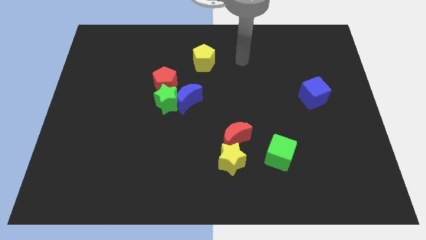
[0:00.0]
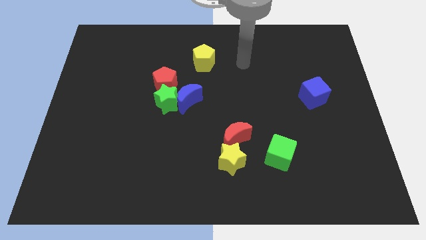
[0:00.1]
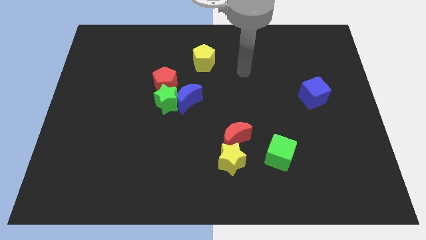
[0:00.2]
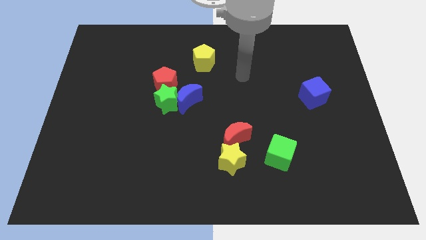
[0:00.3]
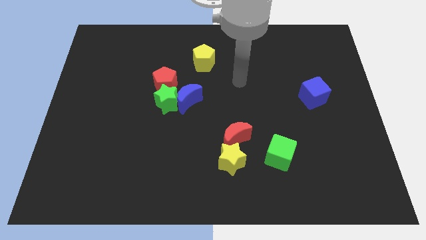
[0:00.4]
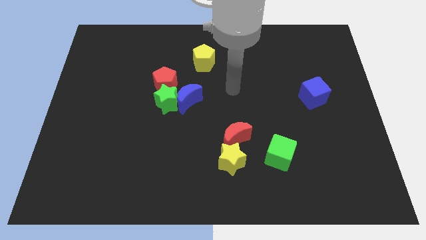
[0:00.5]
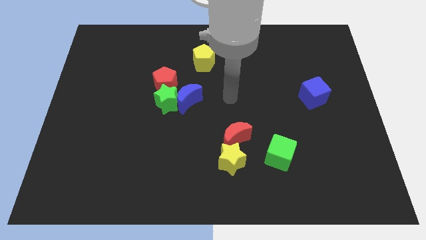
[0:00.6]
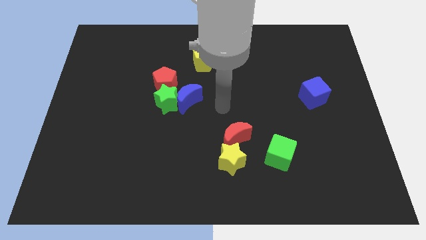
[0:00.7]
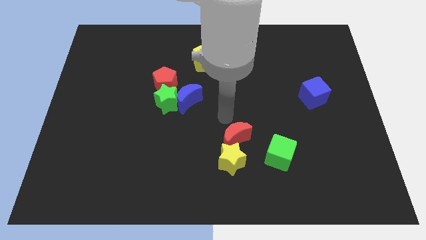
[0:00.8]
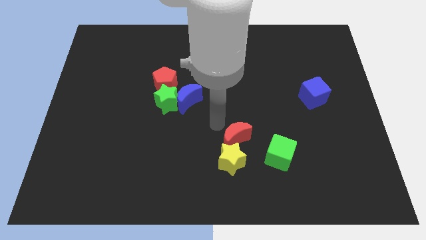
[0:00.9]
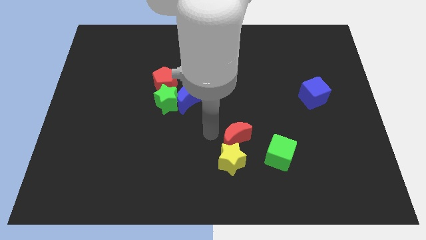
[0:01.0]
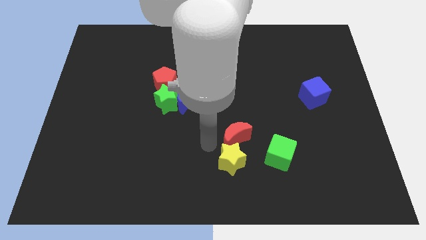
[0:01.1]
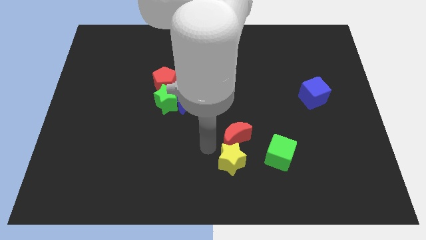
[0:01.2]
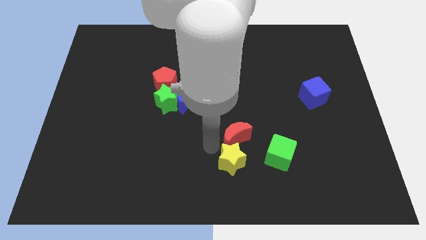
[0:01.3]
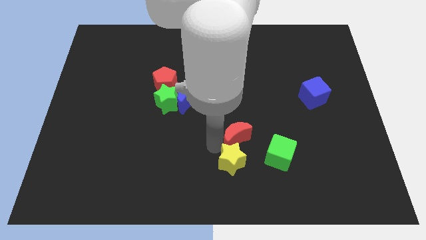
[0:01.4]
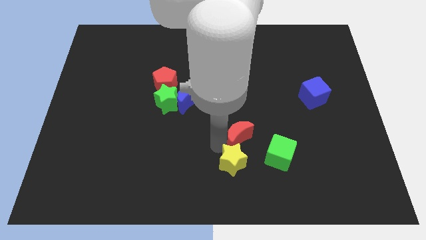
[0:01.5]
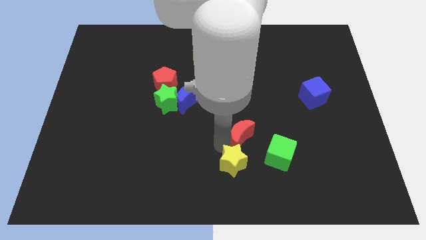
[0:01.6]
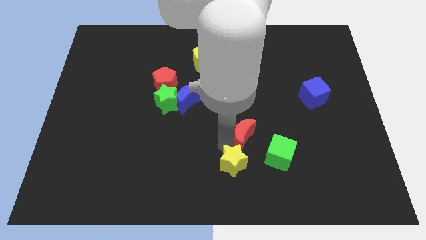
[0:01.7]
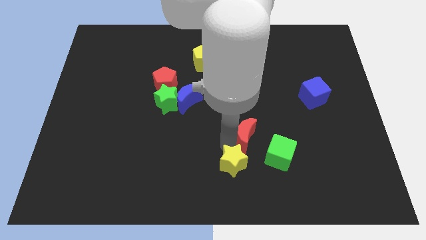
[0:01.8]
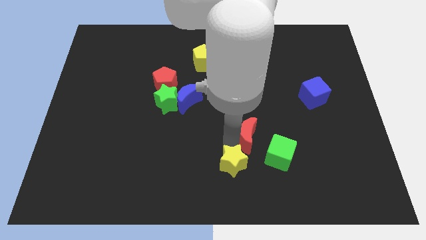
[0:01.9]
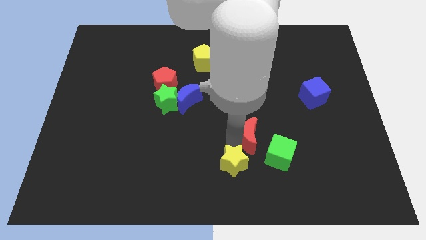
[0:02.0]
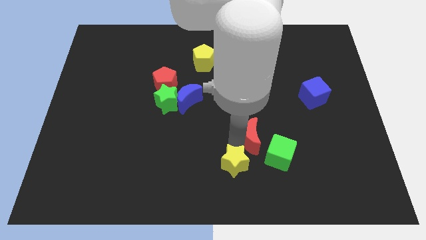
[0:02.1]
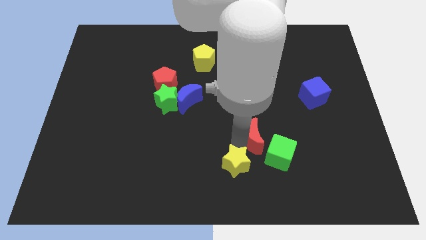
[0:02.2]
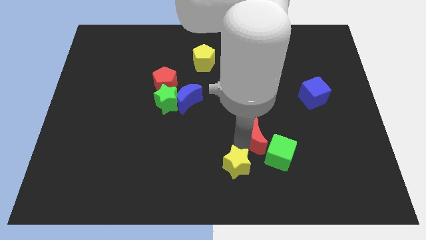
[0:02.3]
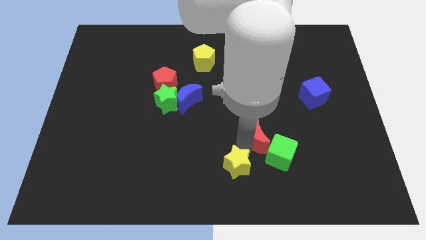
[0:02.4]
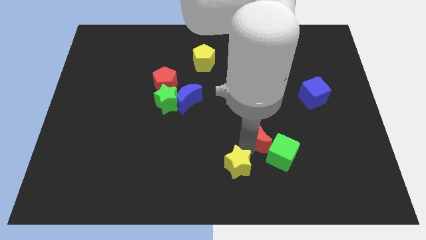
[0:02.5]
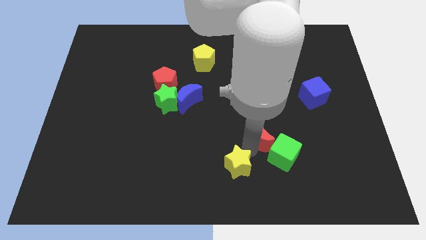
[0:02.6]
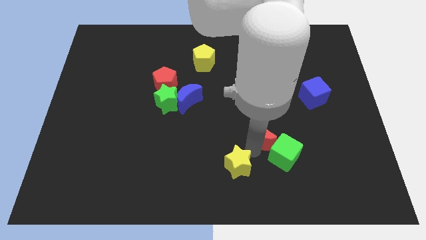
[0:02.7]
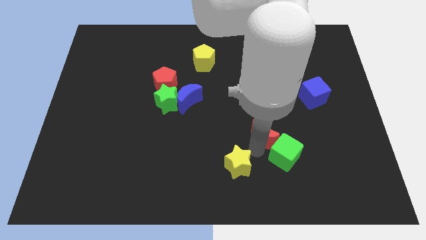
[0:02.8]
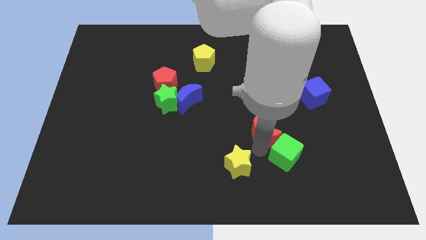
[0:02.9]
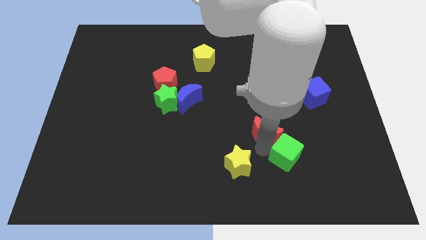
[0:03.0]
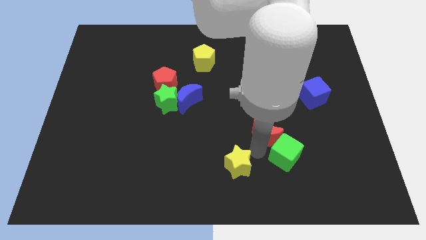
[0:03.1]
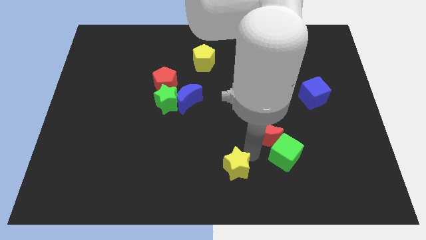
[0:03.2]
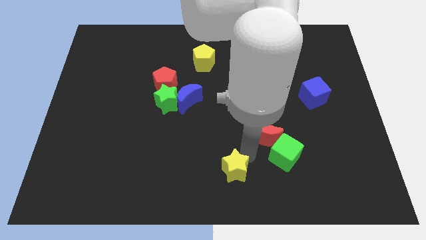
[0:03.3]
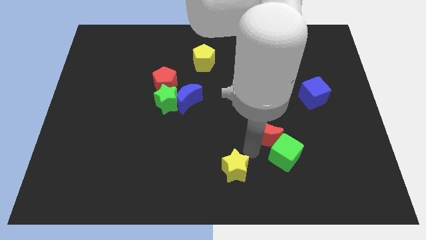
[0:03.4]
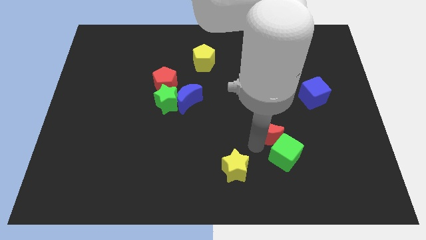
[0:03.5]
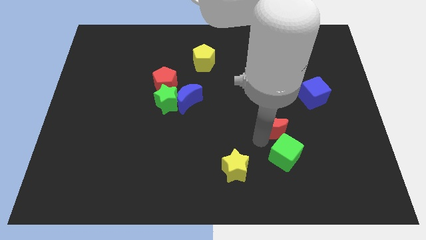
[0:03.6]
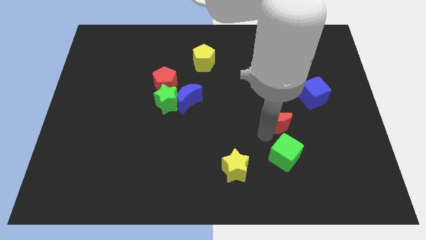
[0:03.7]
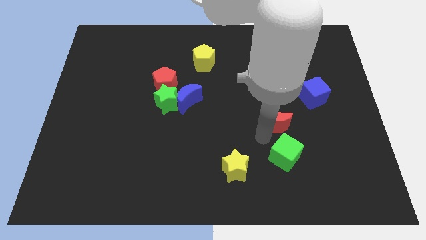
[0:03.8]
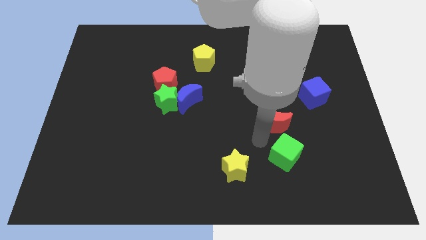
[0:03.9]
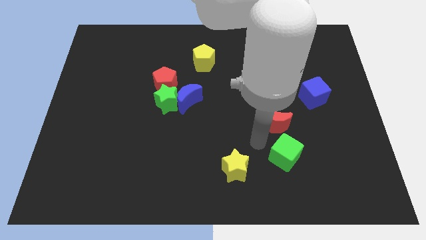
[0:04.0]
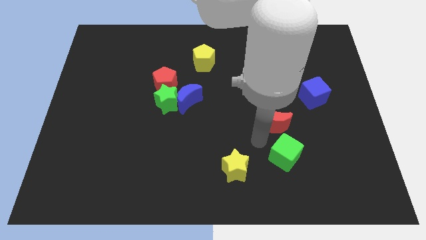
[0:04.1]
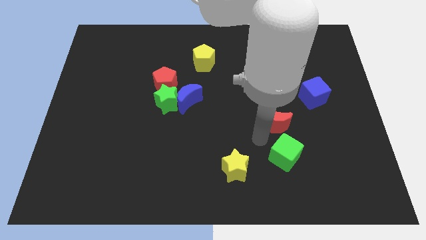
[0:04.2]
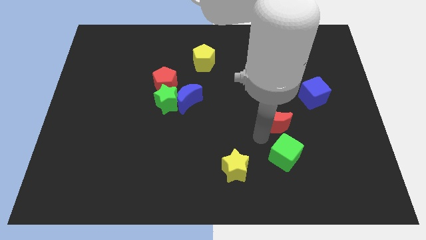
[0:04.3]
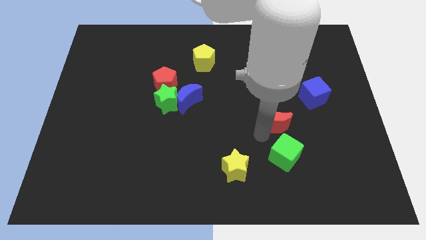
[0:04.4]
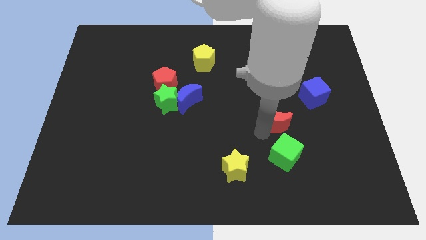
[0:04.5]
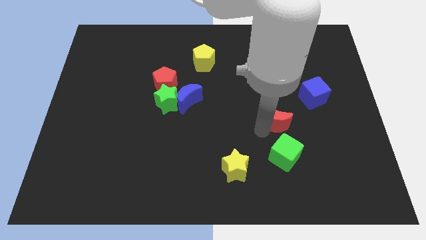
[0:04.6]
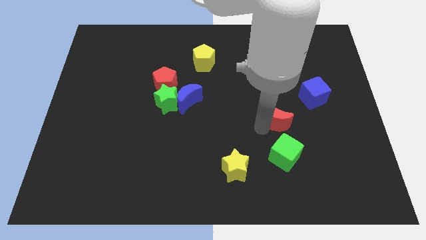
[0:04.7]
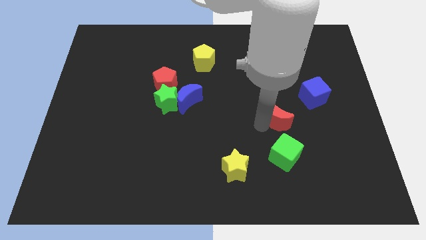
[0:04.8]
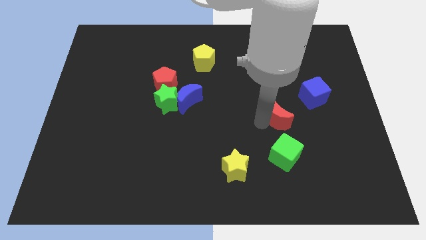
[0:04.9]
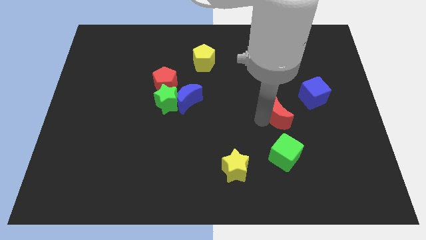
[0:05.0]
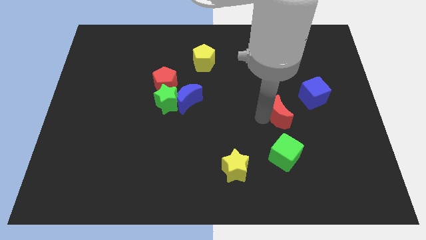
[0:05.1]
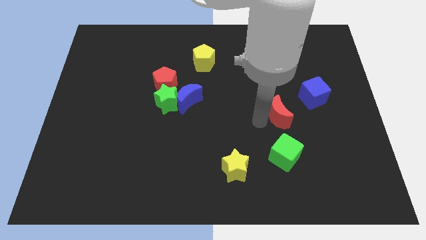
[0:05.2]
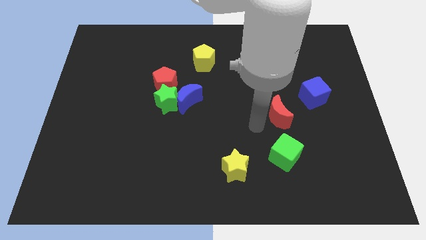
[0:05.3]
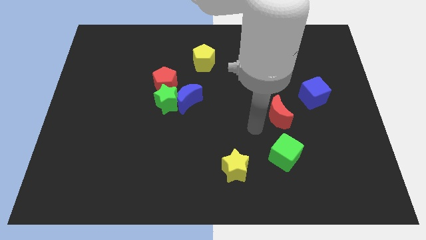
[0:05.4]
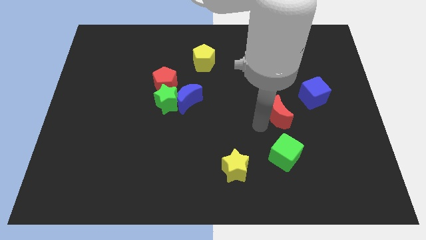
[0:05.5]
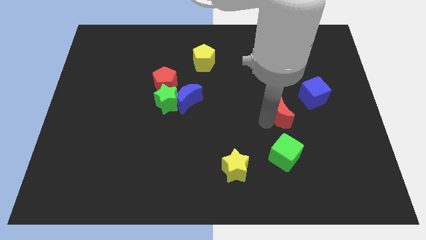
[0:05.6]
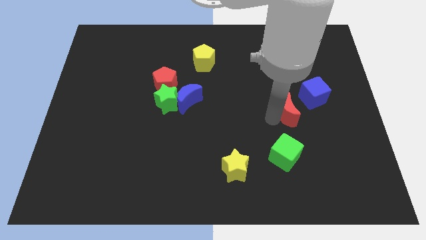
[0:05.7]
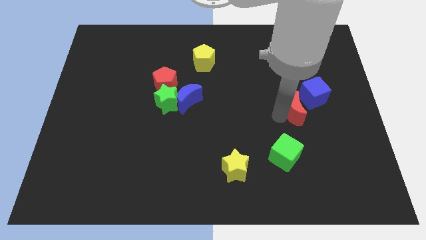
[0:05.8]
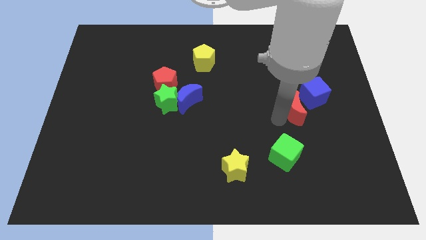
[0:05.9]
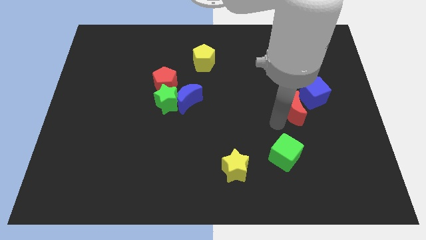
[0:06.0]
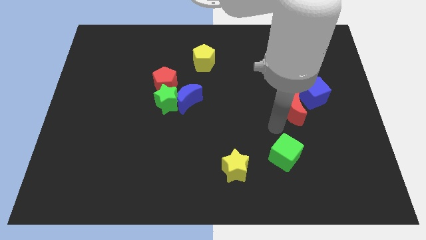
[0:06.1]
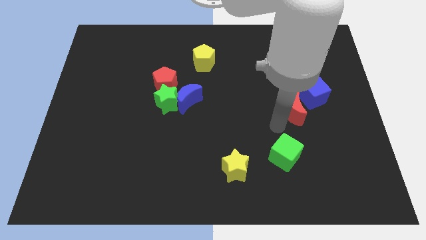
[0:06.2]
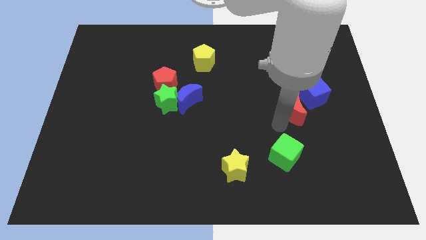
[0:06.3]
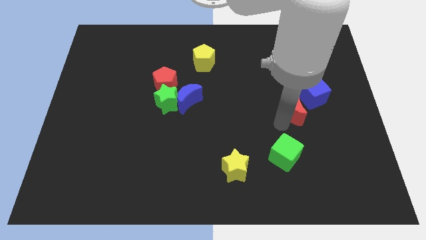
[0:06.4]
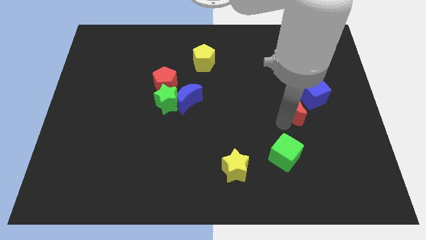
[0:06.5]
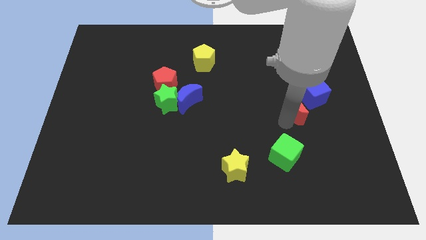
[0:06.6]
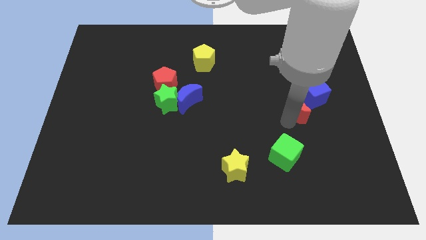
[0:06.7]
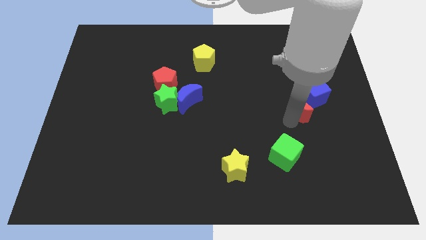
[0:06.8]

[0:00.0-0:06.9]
push the red moon close to the blue cube

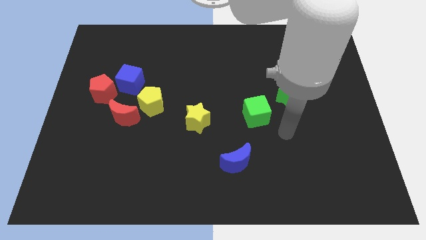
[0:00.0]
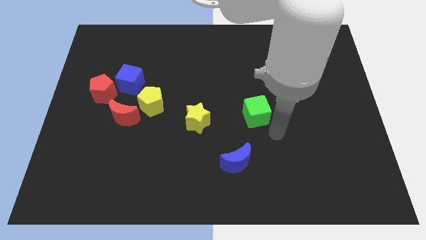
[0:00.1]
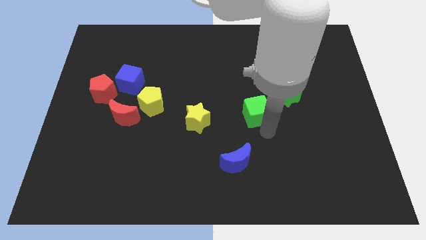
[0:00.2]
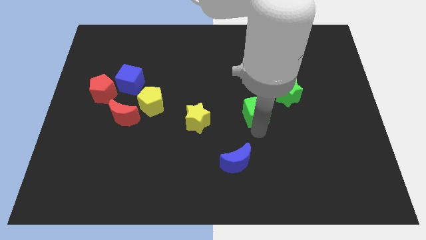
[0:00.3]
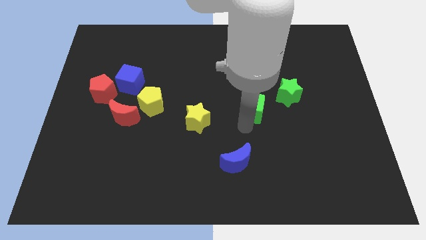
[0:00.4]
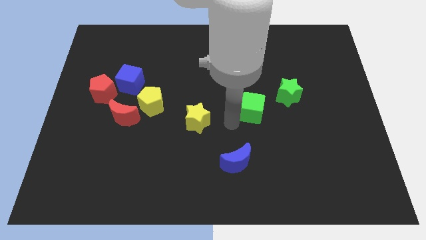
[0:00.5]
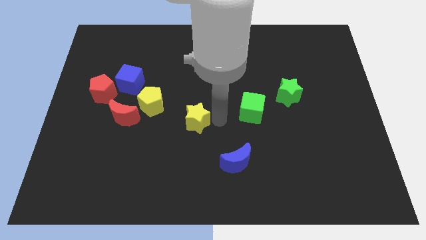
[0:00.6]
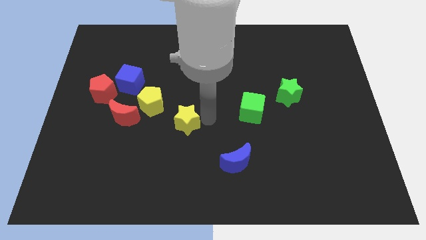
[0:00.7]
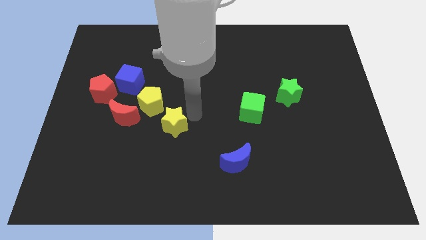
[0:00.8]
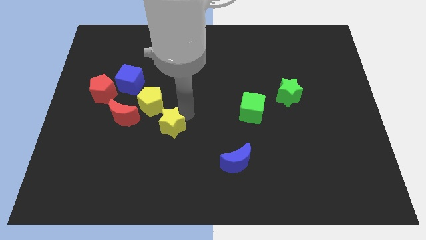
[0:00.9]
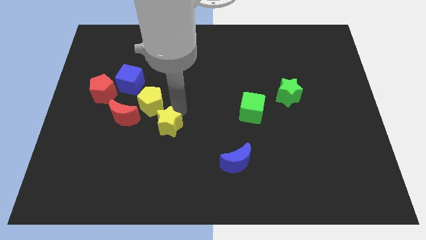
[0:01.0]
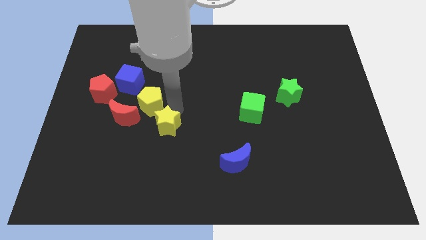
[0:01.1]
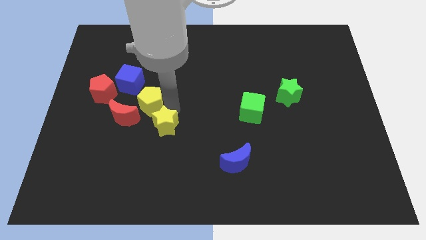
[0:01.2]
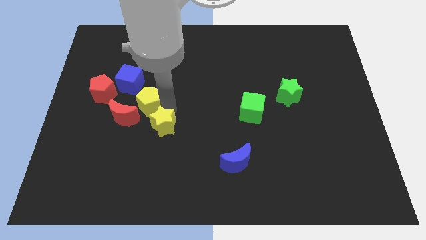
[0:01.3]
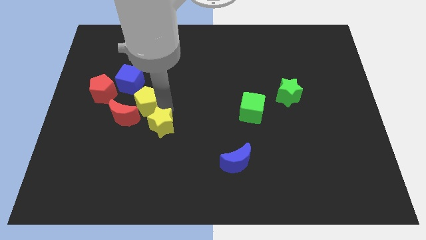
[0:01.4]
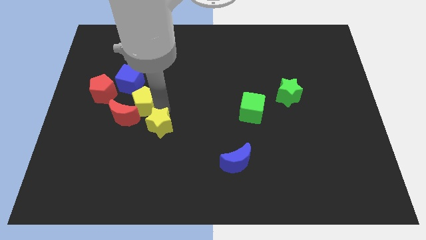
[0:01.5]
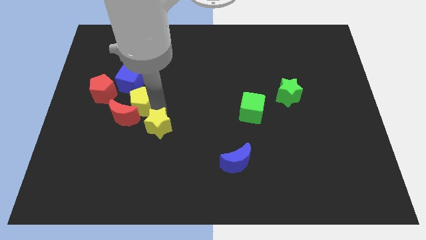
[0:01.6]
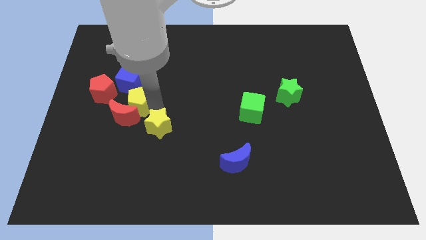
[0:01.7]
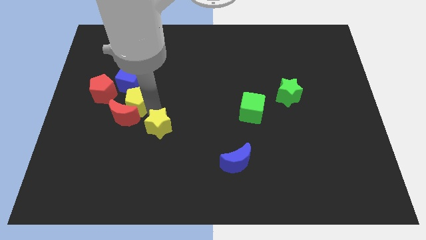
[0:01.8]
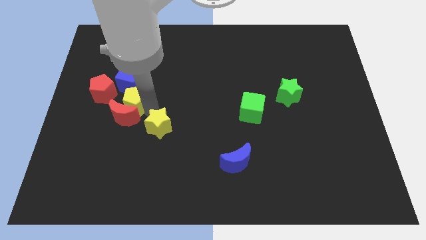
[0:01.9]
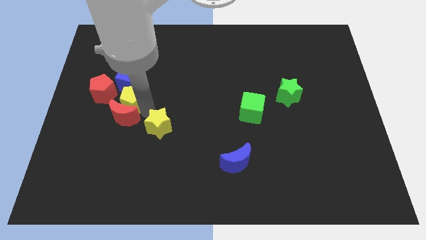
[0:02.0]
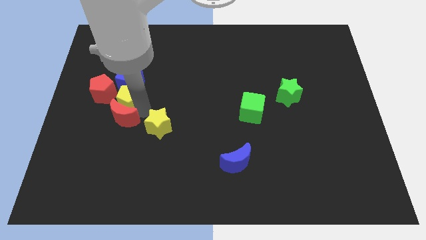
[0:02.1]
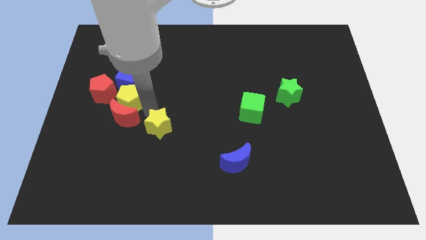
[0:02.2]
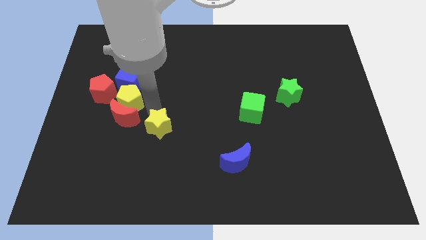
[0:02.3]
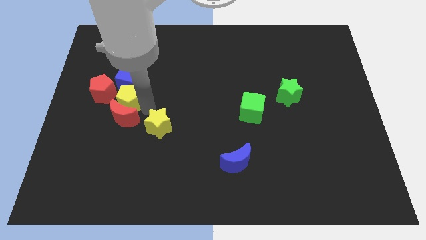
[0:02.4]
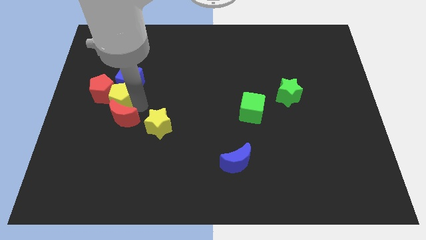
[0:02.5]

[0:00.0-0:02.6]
put the yellow pentagon close to the red pentagon
